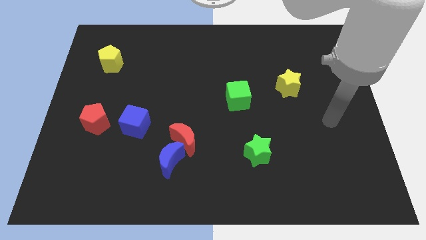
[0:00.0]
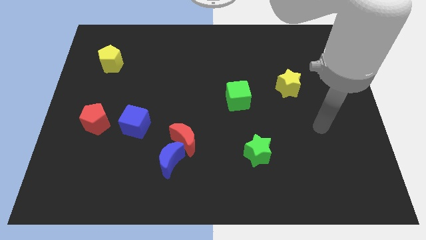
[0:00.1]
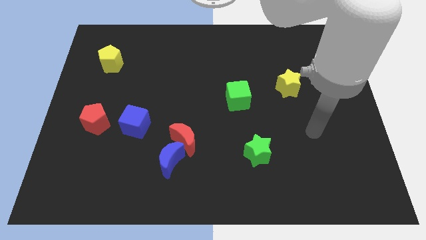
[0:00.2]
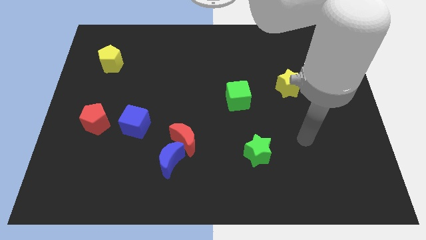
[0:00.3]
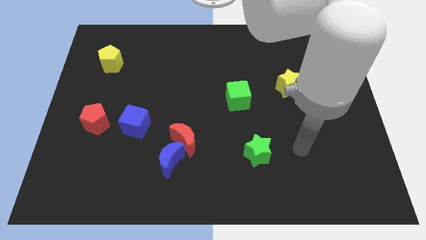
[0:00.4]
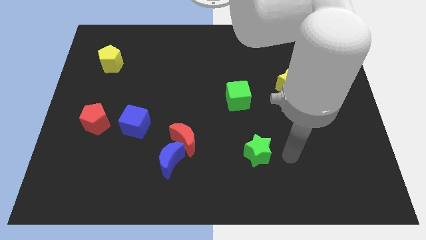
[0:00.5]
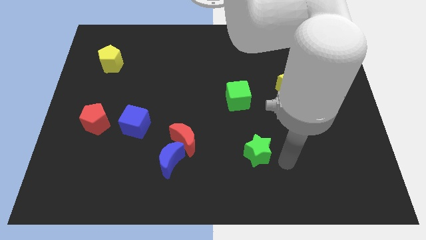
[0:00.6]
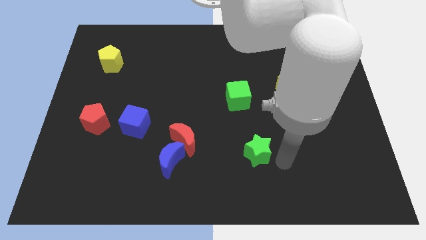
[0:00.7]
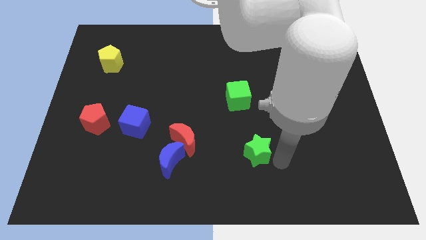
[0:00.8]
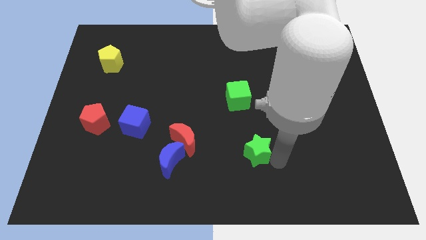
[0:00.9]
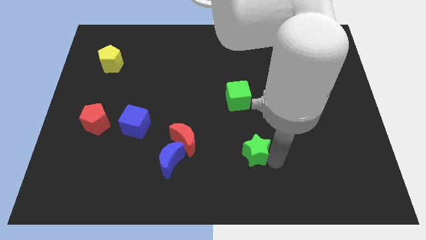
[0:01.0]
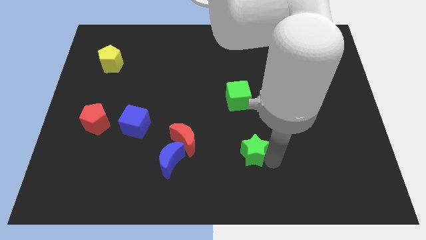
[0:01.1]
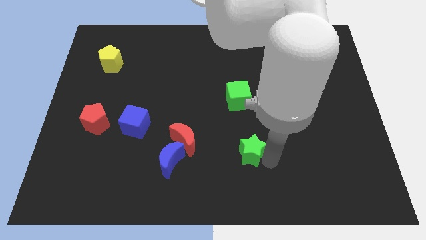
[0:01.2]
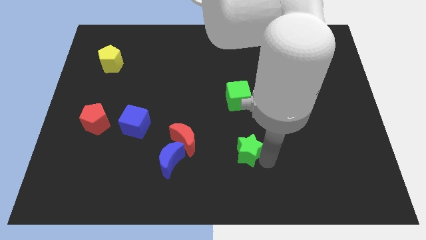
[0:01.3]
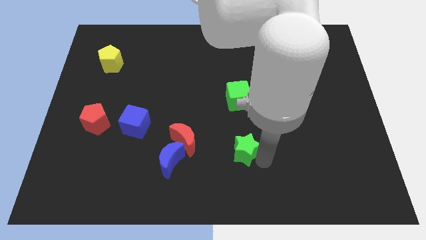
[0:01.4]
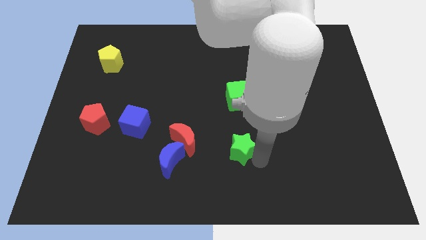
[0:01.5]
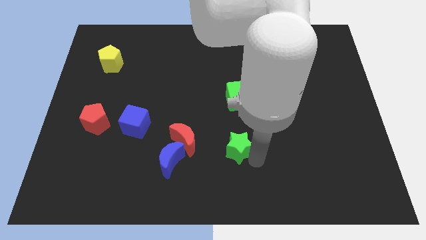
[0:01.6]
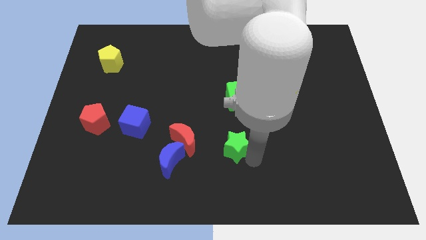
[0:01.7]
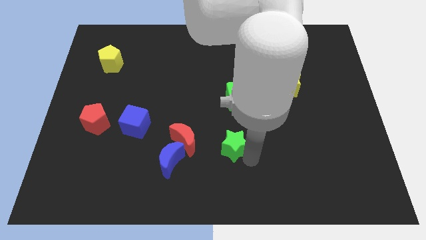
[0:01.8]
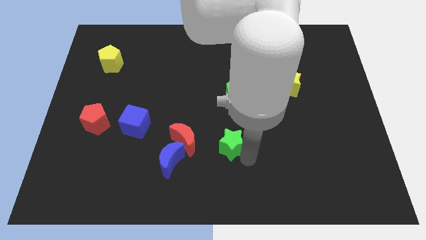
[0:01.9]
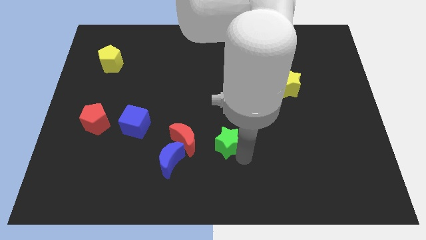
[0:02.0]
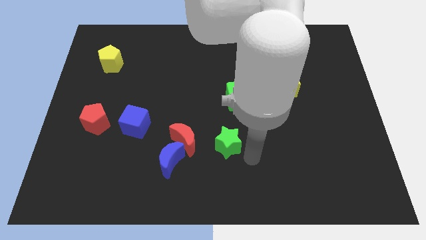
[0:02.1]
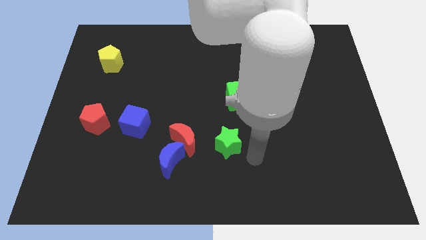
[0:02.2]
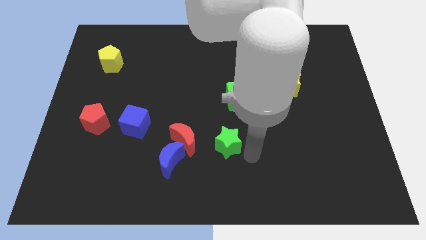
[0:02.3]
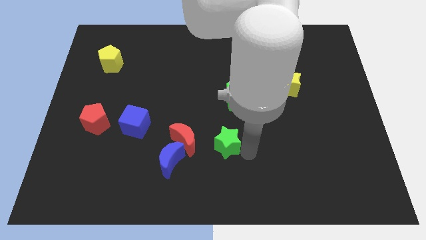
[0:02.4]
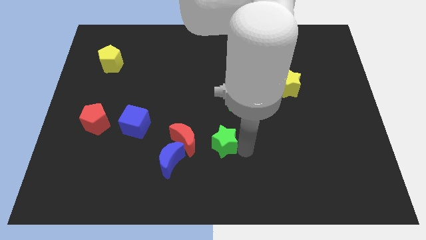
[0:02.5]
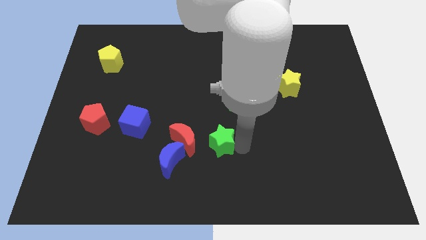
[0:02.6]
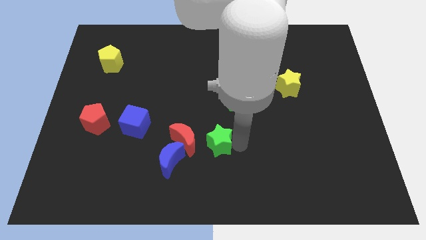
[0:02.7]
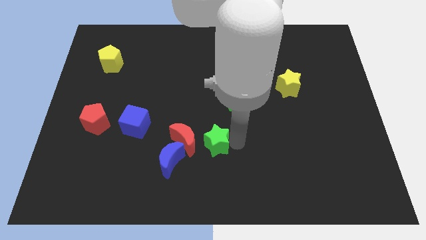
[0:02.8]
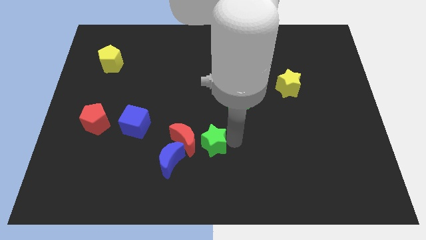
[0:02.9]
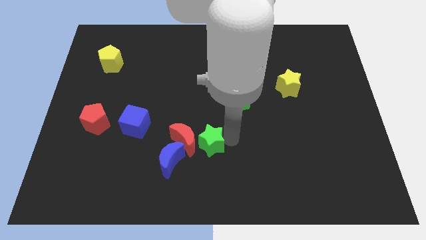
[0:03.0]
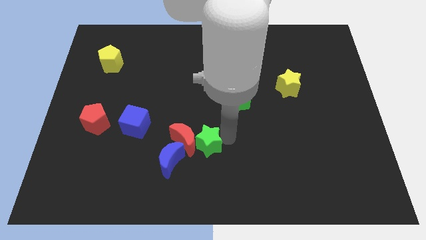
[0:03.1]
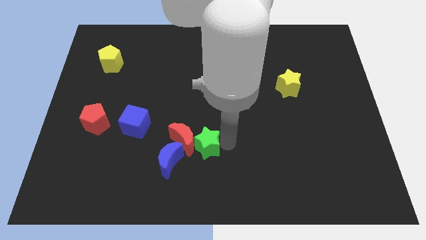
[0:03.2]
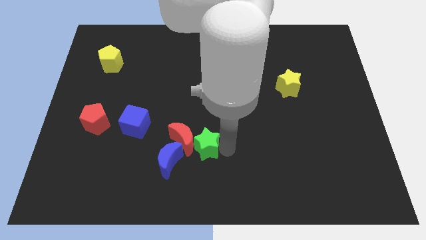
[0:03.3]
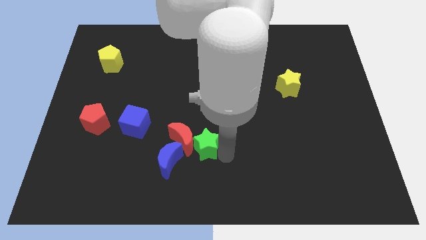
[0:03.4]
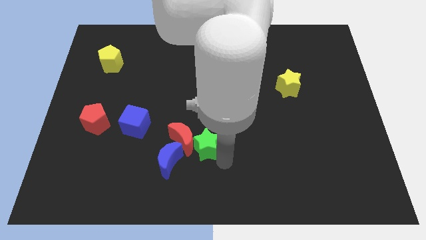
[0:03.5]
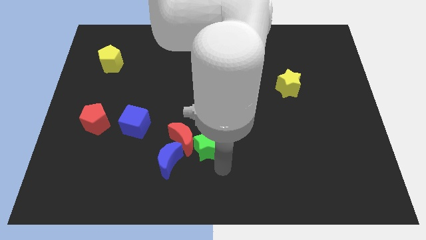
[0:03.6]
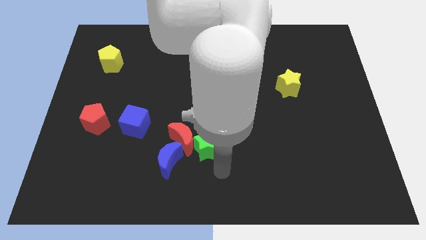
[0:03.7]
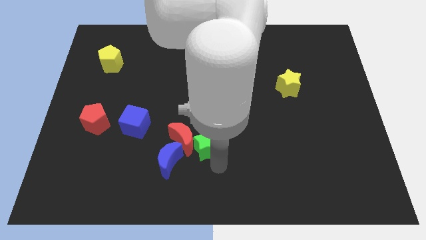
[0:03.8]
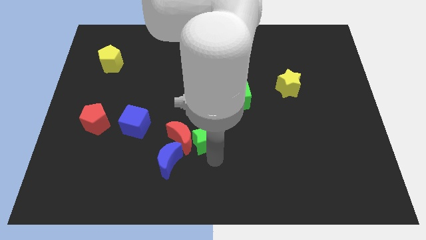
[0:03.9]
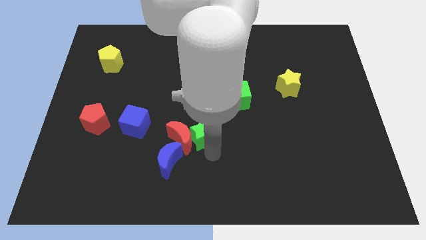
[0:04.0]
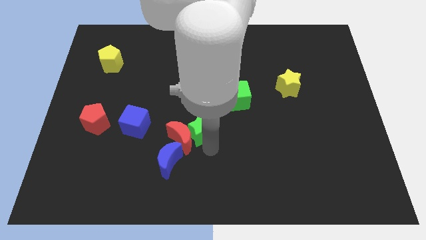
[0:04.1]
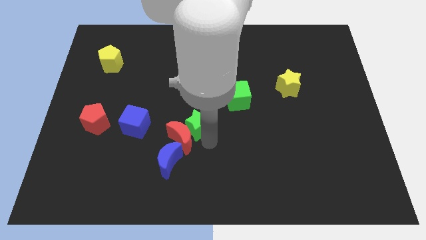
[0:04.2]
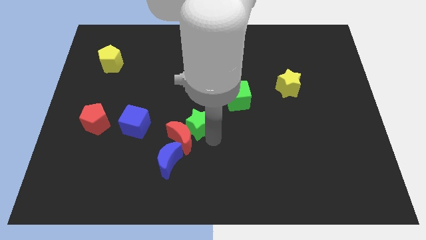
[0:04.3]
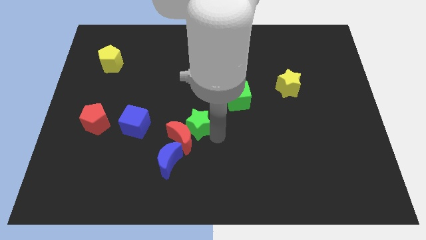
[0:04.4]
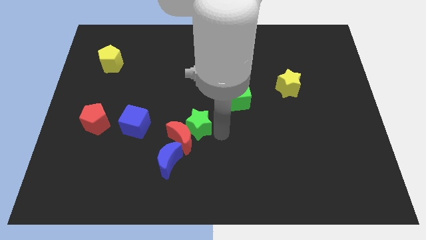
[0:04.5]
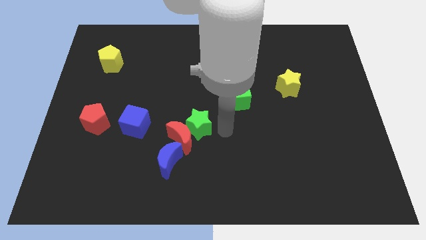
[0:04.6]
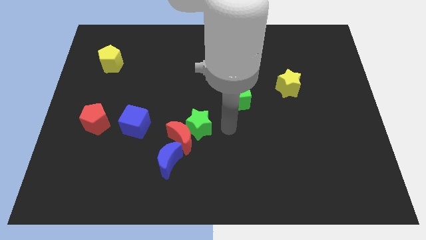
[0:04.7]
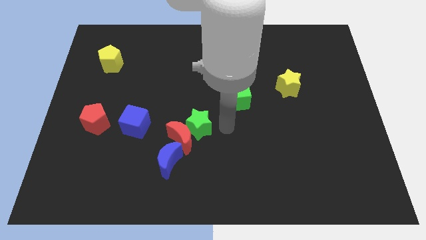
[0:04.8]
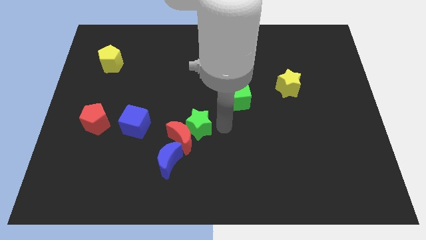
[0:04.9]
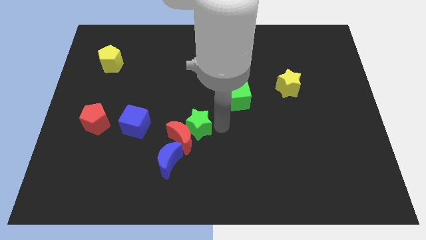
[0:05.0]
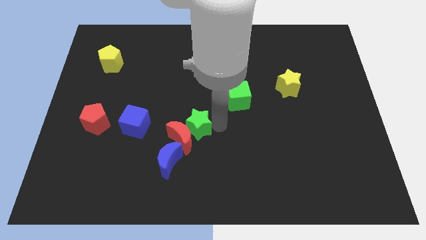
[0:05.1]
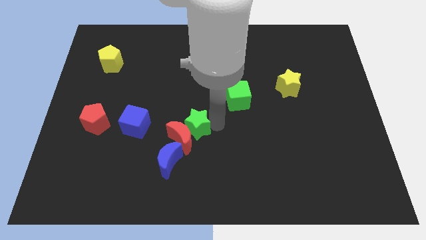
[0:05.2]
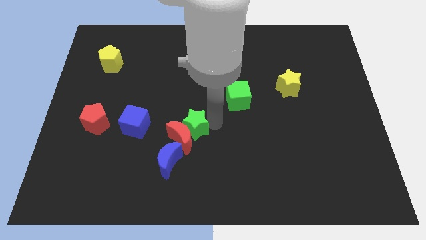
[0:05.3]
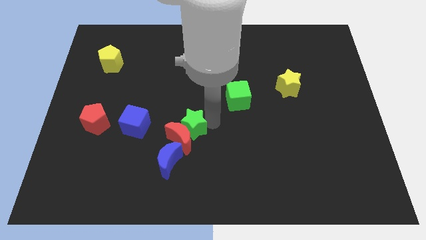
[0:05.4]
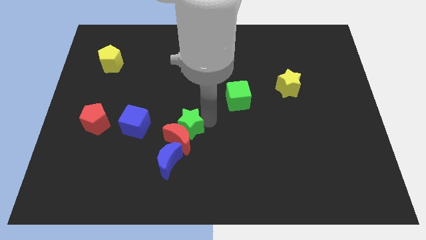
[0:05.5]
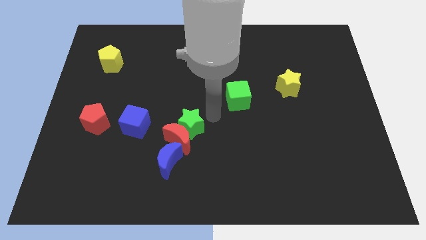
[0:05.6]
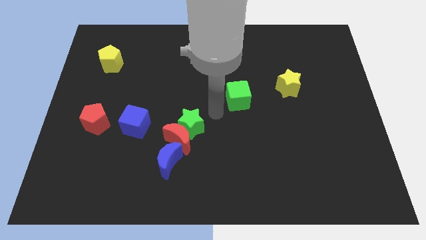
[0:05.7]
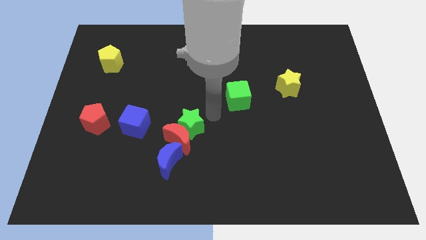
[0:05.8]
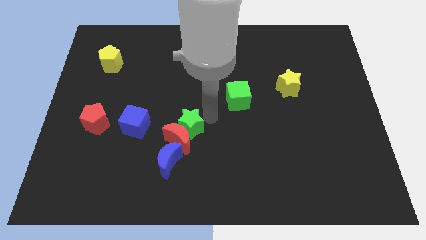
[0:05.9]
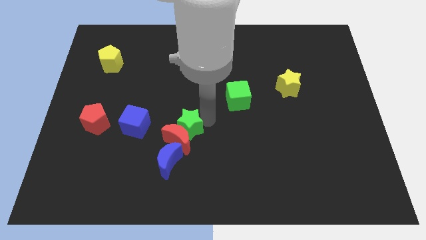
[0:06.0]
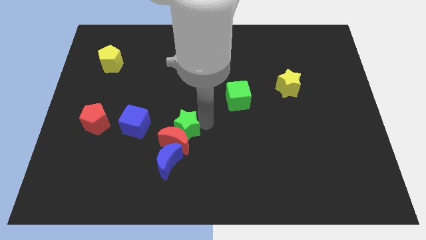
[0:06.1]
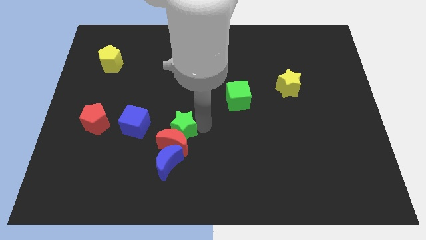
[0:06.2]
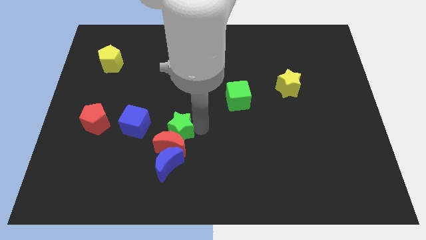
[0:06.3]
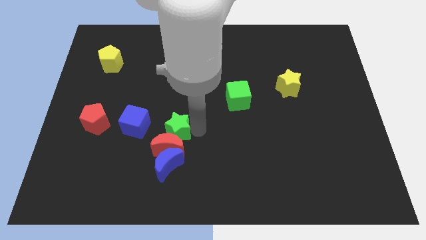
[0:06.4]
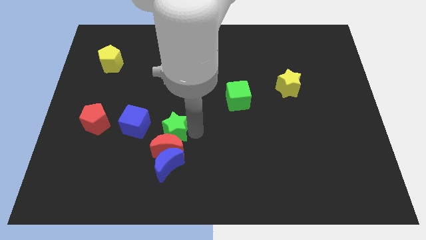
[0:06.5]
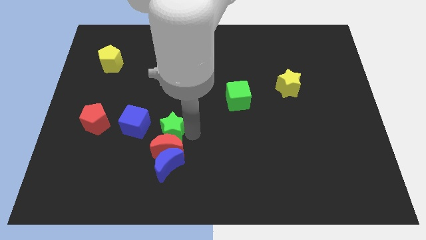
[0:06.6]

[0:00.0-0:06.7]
slide the green star to the bottom right side of the blue cube

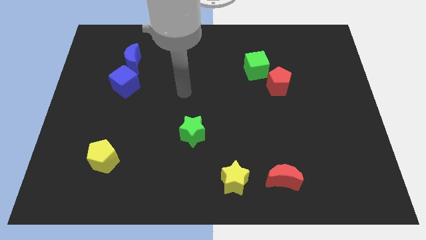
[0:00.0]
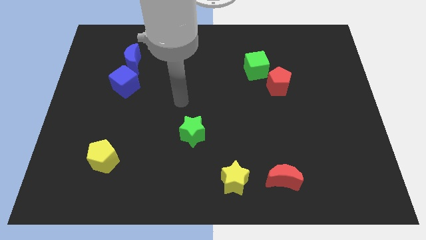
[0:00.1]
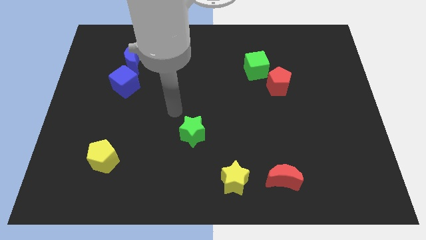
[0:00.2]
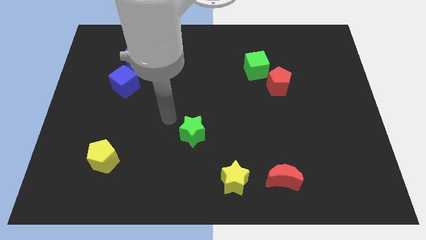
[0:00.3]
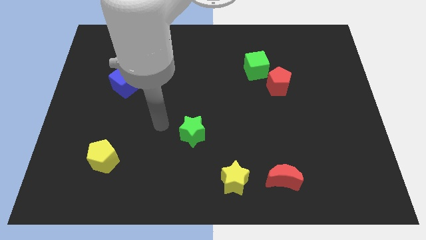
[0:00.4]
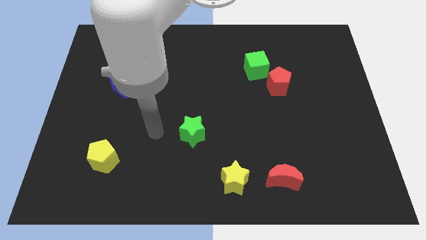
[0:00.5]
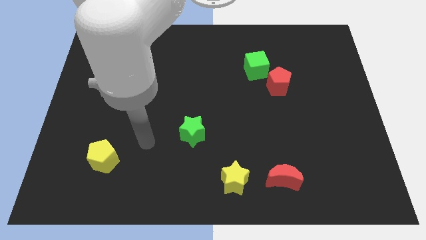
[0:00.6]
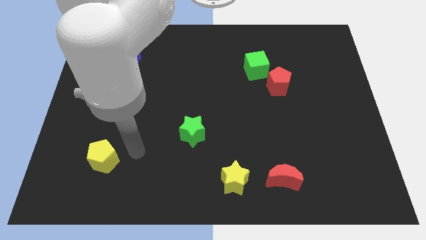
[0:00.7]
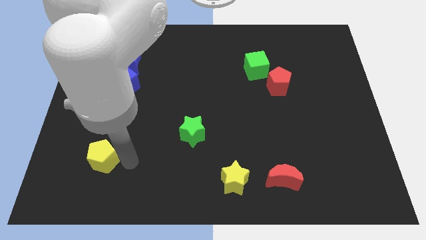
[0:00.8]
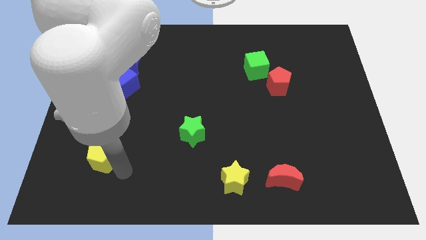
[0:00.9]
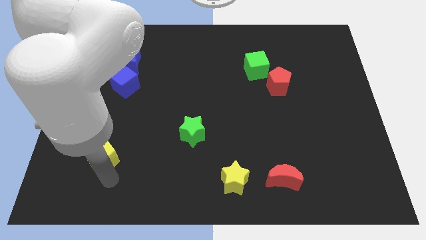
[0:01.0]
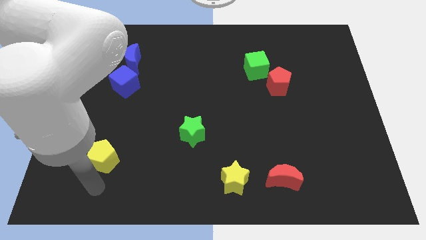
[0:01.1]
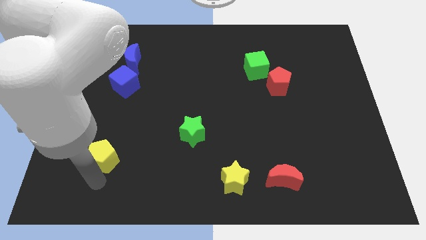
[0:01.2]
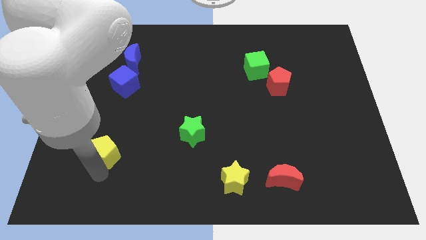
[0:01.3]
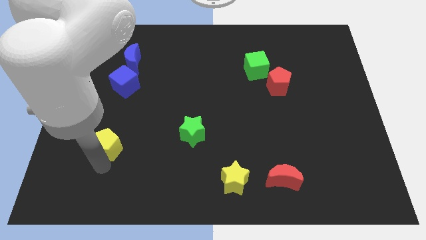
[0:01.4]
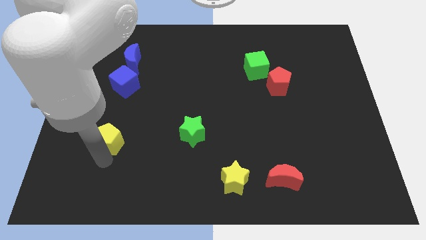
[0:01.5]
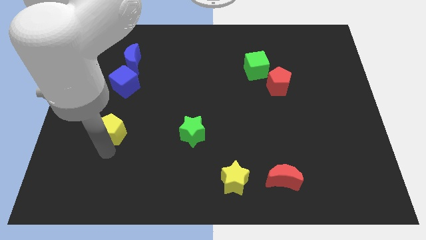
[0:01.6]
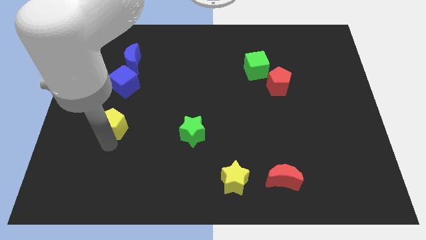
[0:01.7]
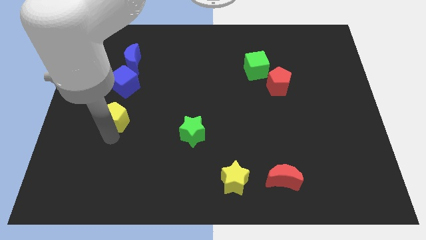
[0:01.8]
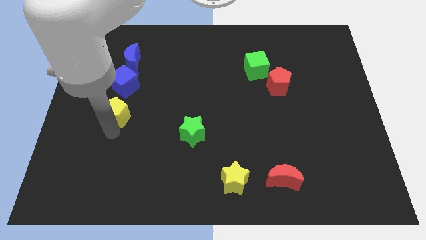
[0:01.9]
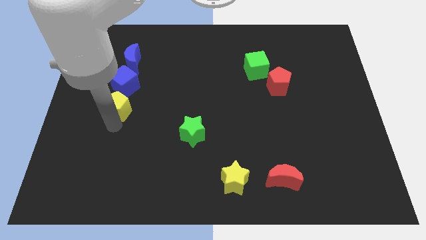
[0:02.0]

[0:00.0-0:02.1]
move the yellow pentagon to the bottom side of the blue moon
